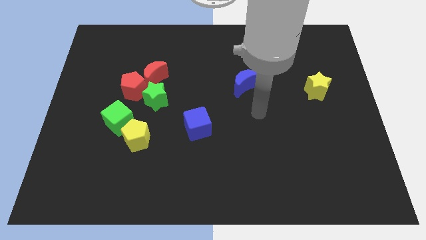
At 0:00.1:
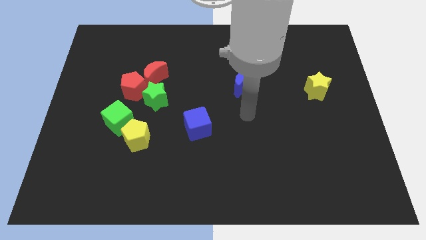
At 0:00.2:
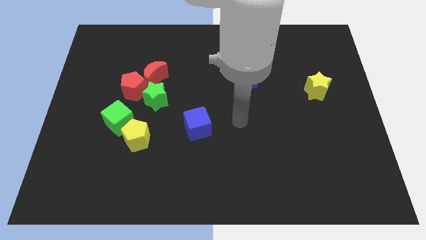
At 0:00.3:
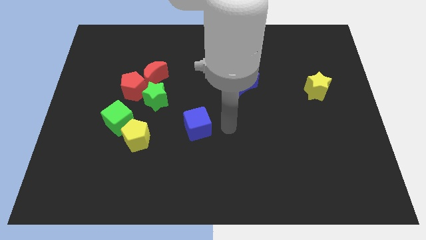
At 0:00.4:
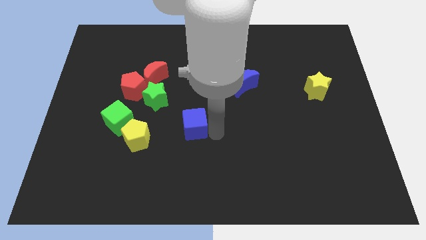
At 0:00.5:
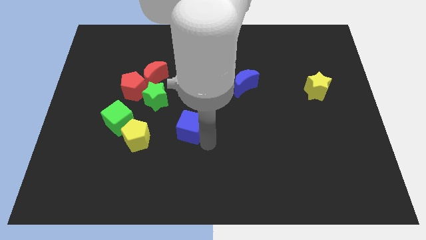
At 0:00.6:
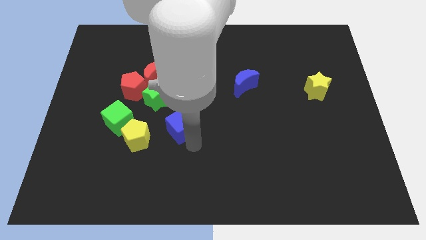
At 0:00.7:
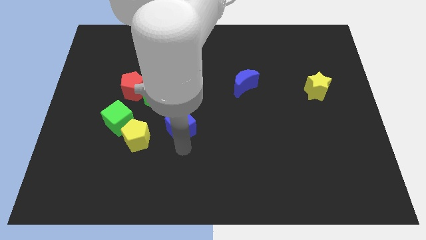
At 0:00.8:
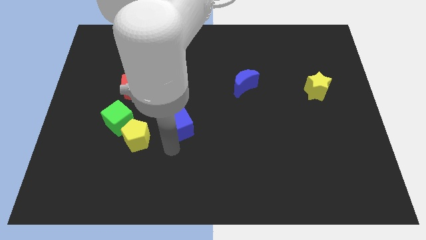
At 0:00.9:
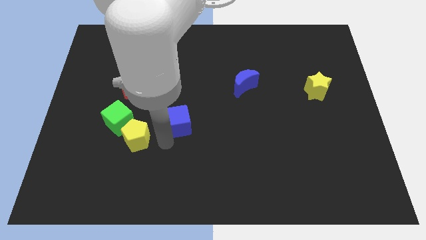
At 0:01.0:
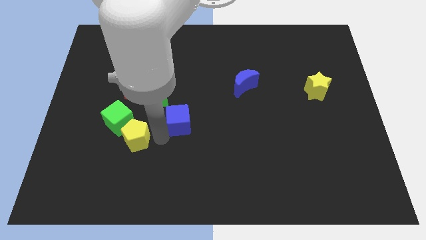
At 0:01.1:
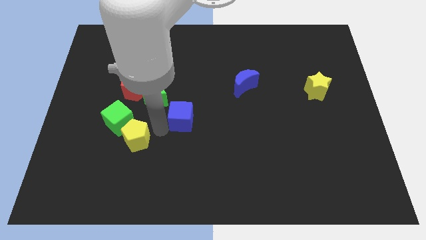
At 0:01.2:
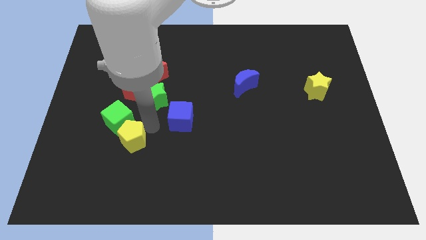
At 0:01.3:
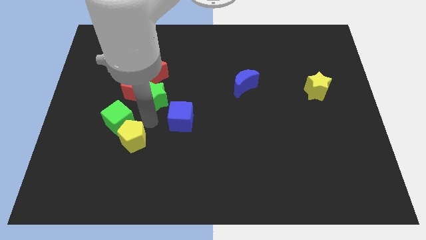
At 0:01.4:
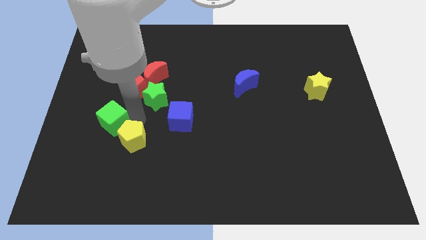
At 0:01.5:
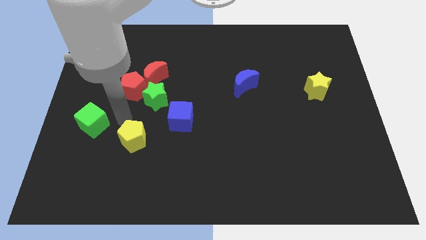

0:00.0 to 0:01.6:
pull the yellow pentagon apart from the green cube

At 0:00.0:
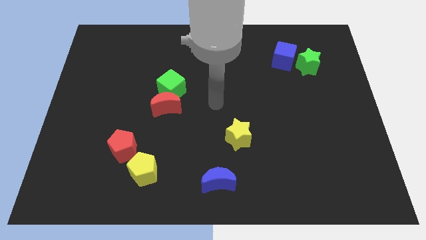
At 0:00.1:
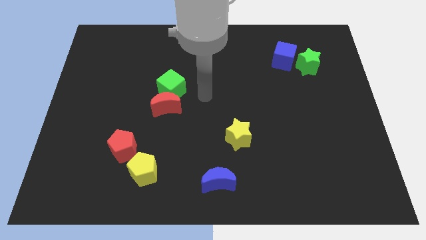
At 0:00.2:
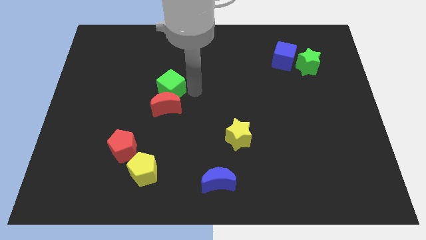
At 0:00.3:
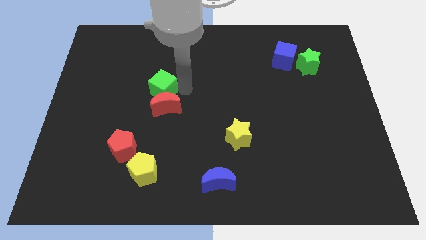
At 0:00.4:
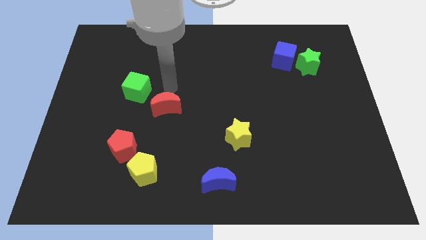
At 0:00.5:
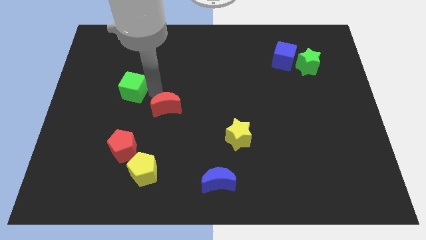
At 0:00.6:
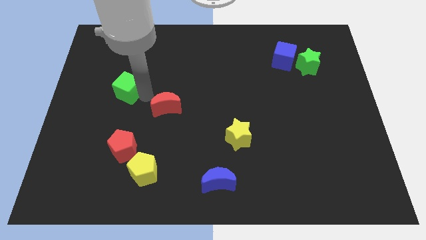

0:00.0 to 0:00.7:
pull the red moon apart from the green cube

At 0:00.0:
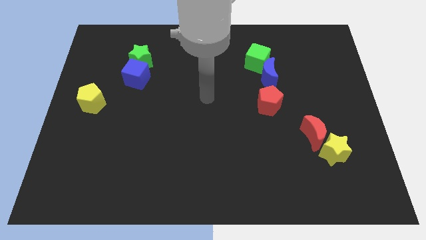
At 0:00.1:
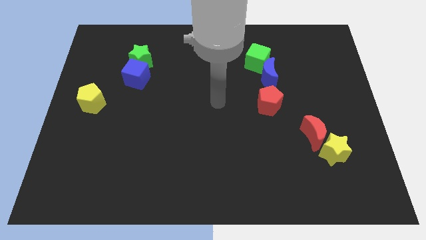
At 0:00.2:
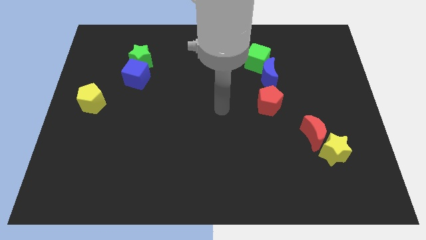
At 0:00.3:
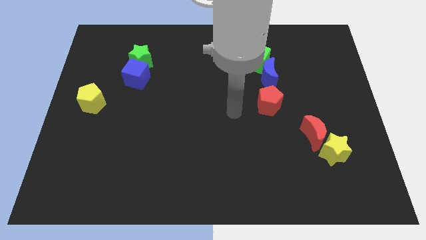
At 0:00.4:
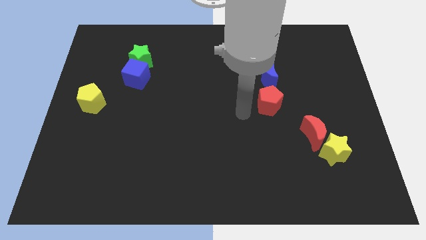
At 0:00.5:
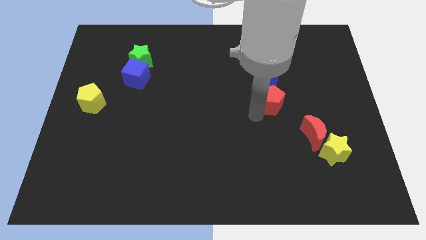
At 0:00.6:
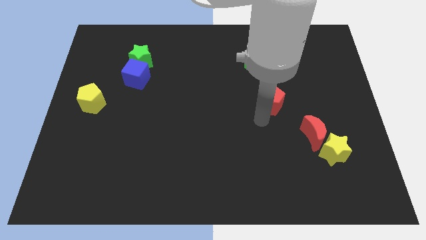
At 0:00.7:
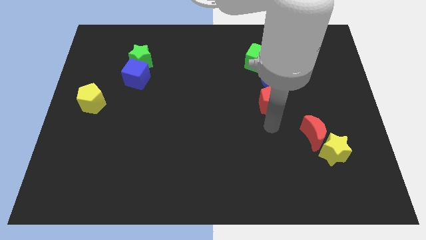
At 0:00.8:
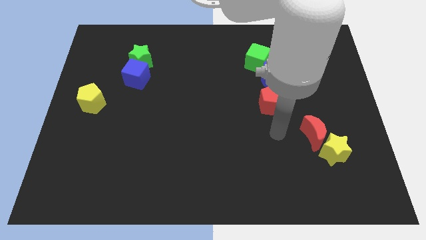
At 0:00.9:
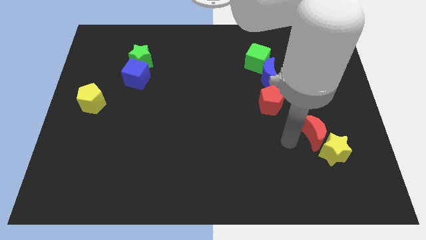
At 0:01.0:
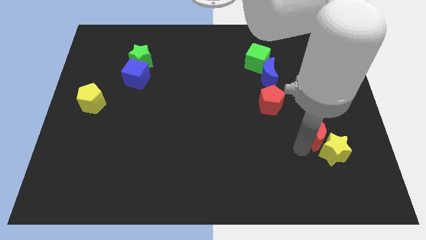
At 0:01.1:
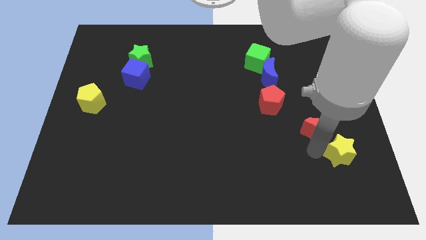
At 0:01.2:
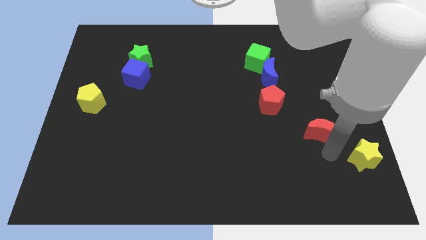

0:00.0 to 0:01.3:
pull the red moon apart from the yellow star

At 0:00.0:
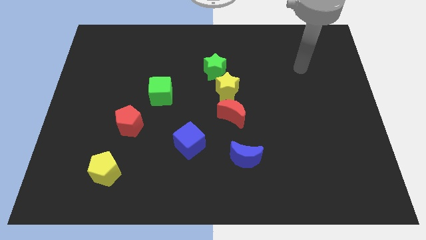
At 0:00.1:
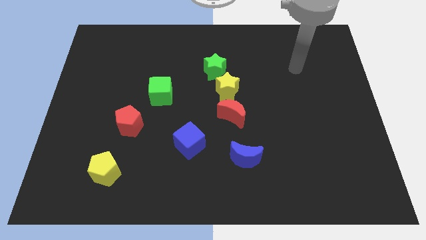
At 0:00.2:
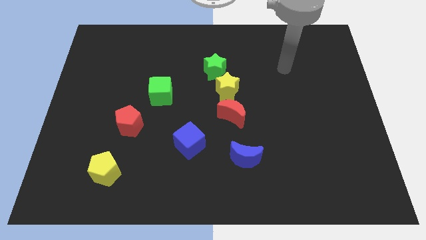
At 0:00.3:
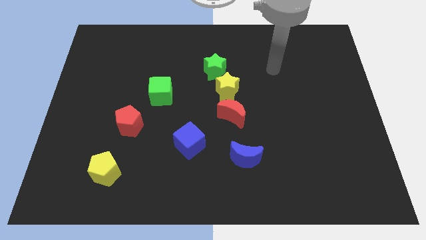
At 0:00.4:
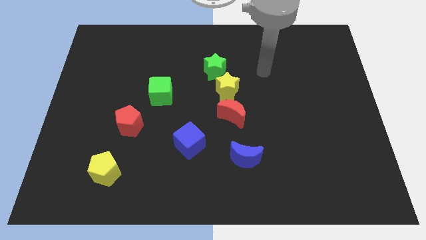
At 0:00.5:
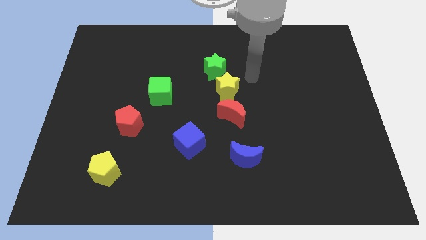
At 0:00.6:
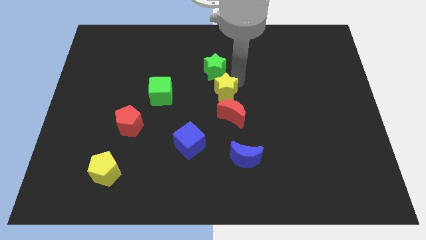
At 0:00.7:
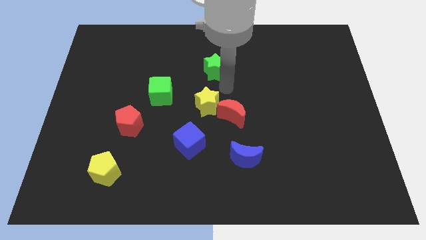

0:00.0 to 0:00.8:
move the green star away from the yellow star

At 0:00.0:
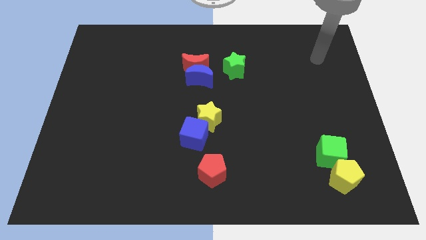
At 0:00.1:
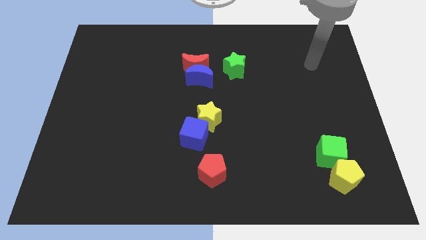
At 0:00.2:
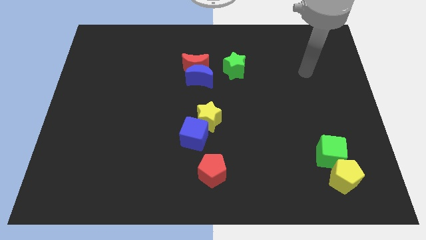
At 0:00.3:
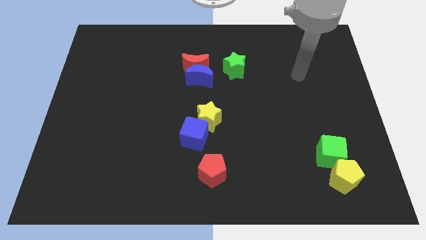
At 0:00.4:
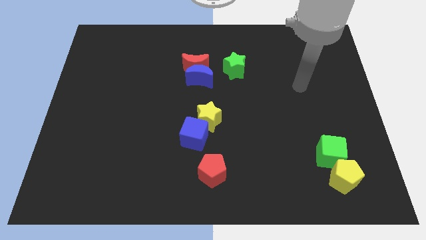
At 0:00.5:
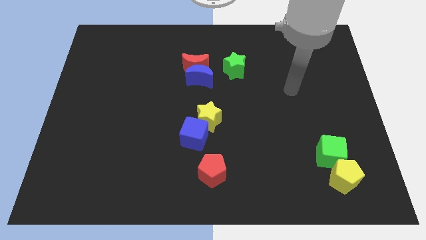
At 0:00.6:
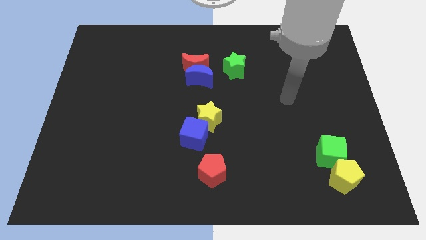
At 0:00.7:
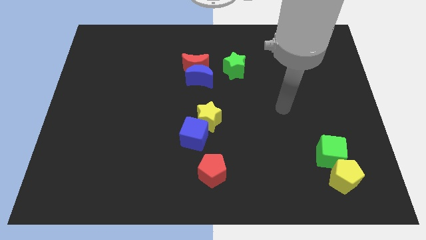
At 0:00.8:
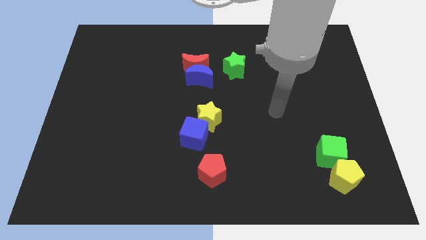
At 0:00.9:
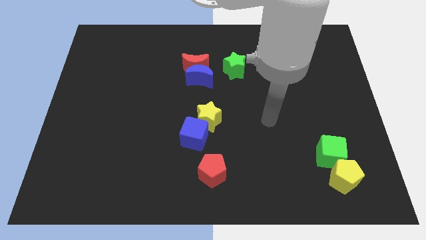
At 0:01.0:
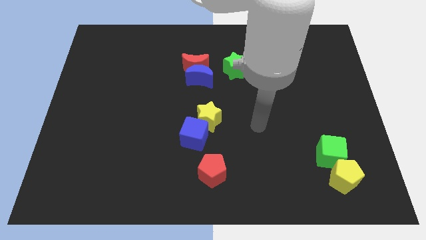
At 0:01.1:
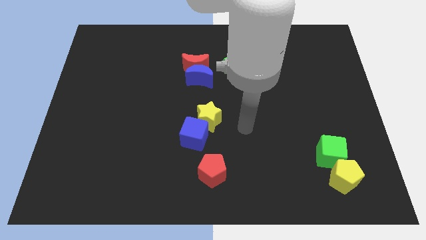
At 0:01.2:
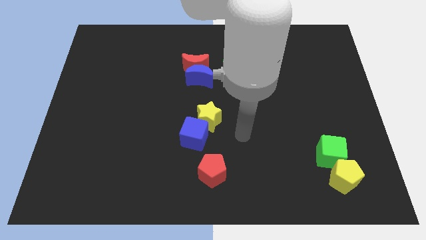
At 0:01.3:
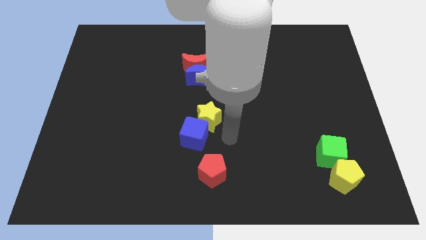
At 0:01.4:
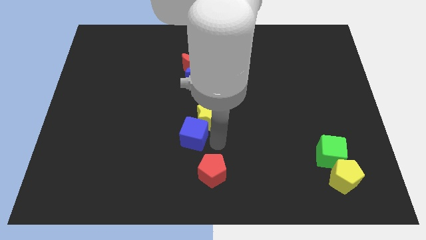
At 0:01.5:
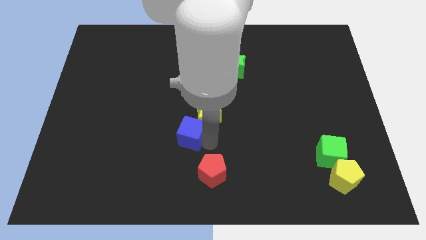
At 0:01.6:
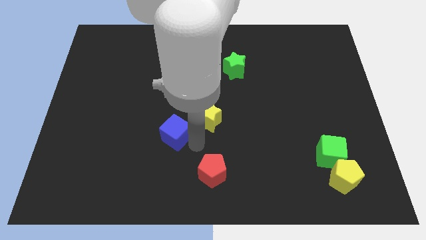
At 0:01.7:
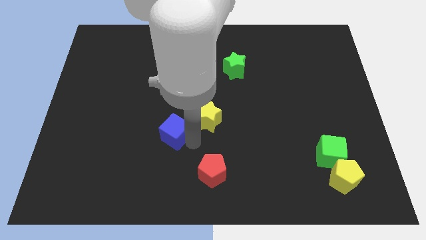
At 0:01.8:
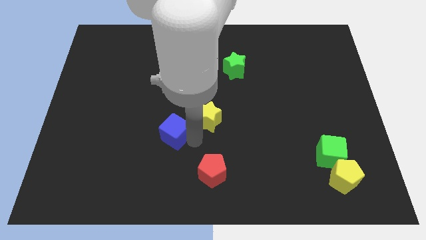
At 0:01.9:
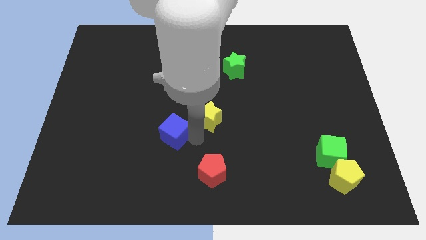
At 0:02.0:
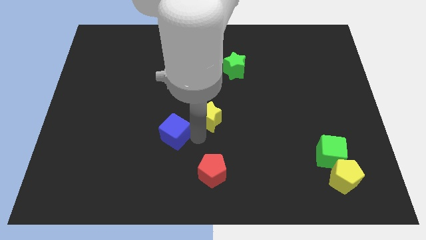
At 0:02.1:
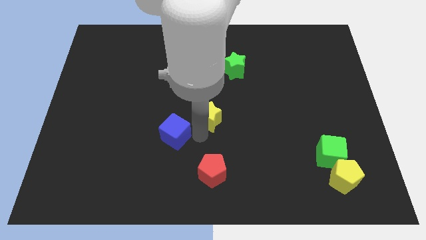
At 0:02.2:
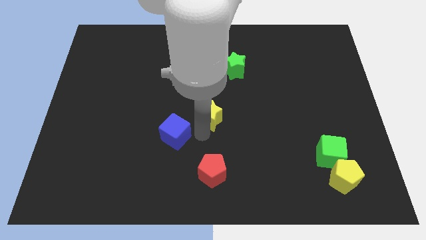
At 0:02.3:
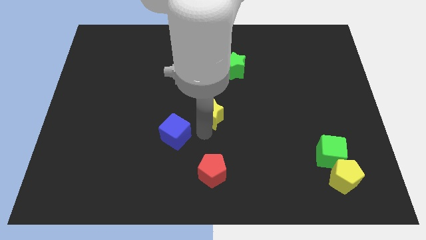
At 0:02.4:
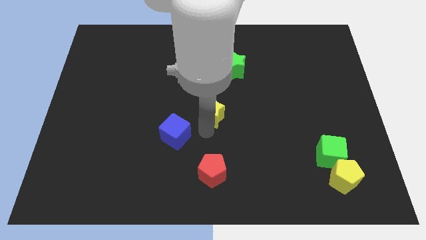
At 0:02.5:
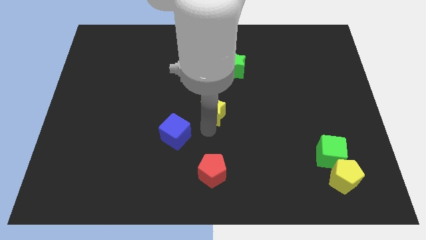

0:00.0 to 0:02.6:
separate the yellow star from the blue cube

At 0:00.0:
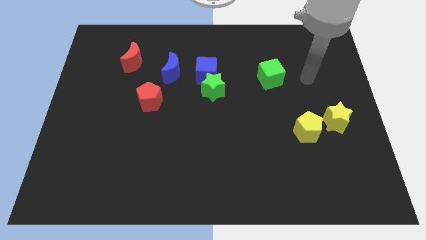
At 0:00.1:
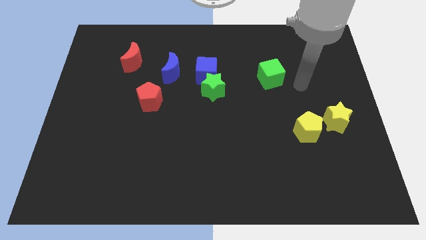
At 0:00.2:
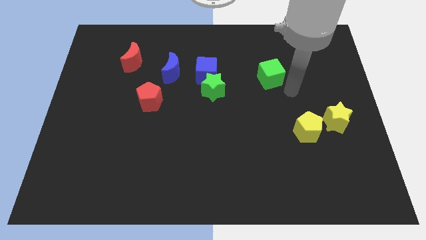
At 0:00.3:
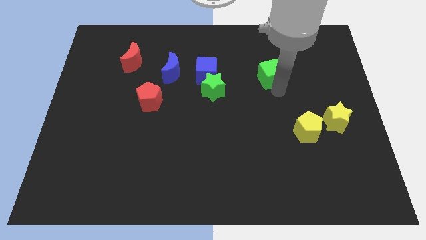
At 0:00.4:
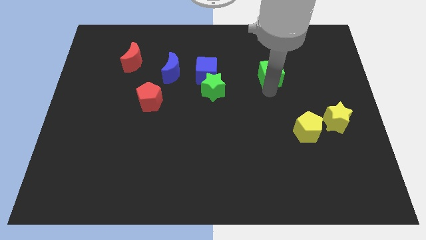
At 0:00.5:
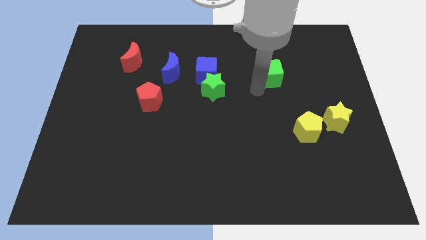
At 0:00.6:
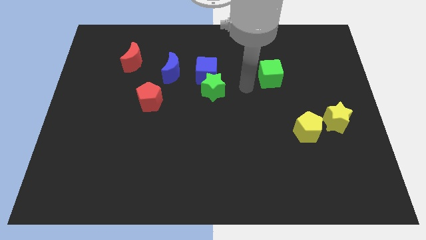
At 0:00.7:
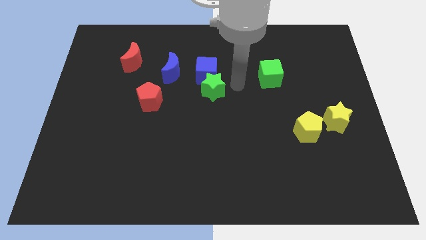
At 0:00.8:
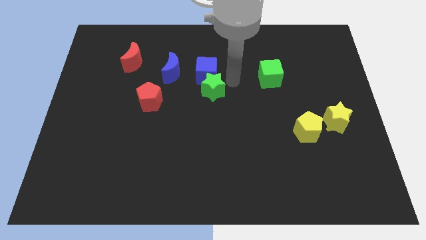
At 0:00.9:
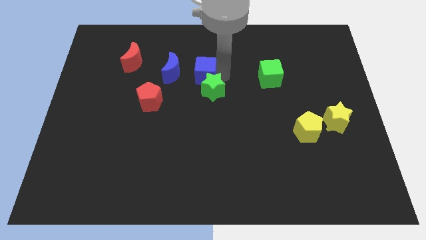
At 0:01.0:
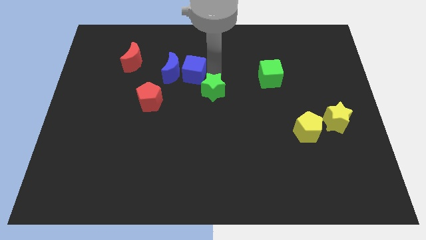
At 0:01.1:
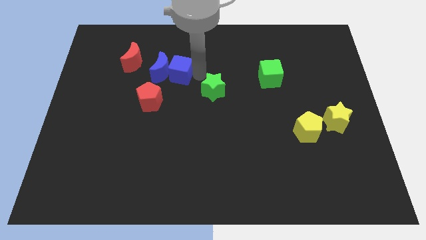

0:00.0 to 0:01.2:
separate the green star from the blue cube

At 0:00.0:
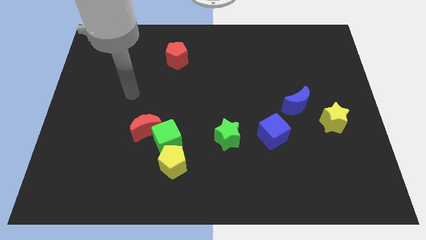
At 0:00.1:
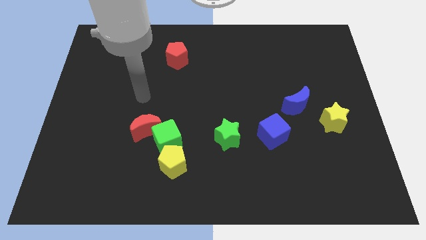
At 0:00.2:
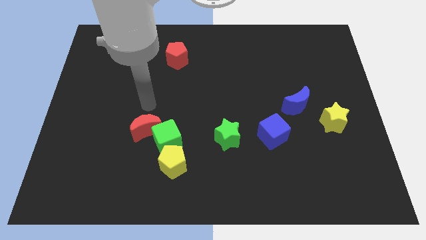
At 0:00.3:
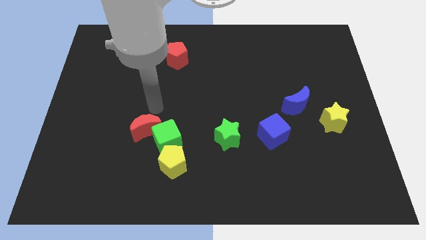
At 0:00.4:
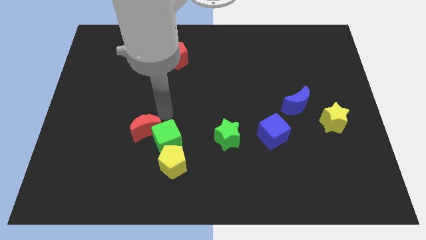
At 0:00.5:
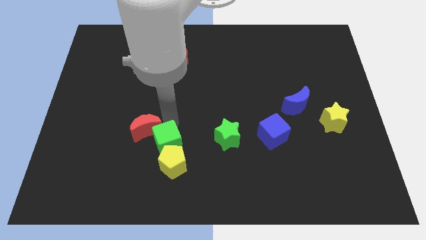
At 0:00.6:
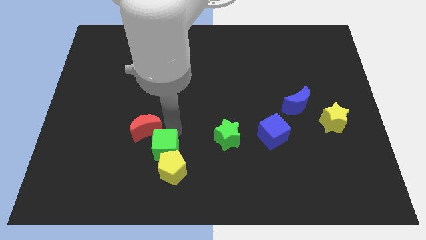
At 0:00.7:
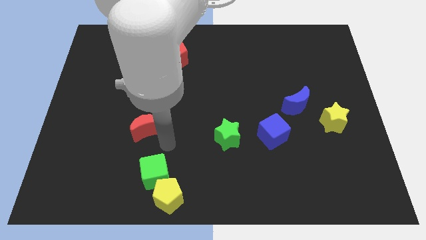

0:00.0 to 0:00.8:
move the red moon away from the green cube

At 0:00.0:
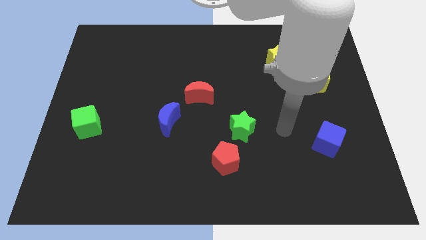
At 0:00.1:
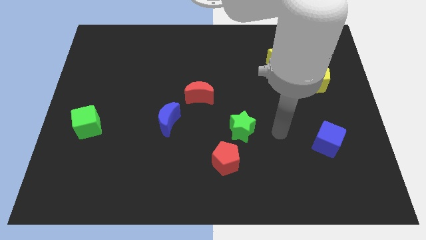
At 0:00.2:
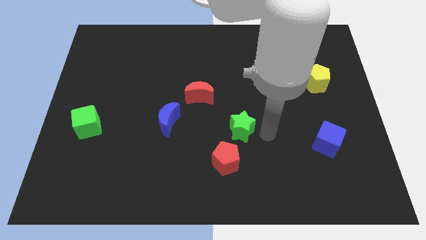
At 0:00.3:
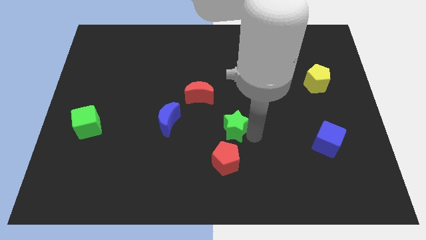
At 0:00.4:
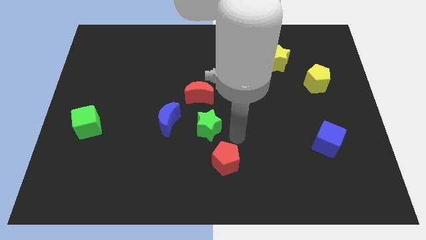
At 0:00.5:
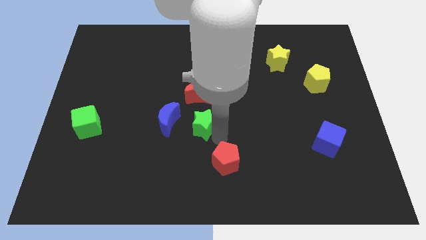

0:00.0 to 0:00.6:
separate the red pentagon from the green star
